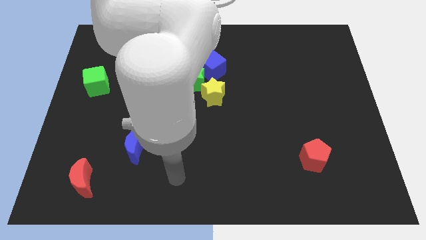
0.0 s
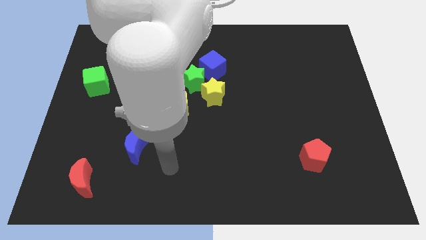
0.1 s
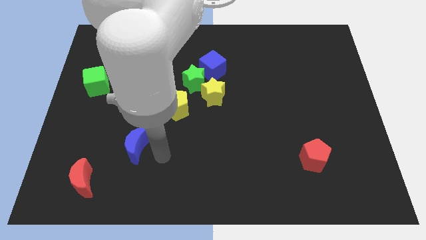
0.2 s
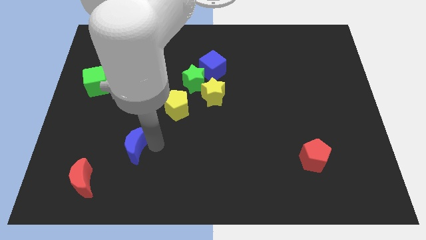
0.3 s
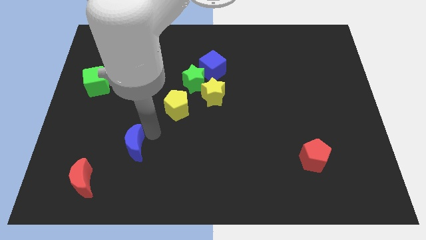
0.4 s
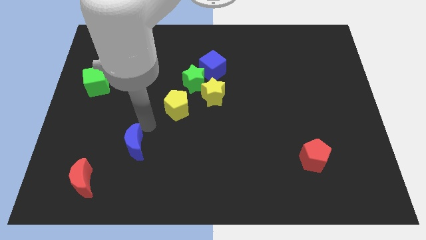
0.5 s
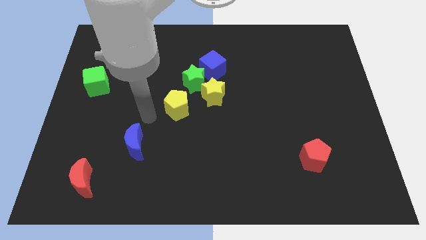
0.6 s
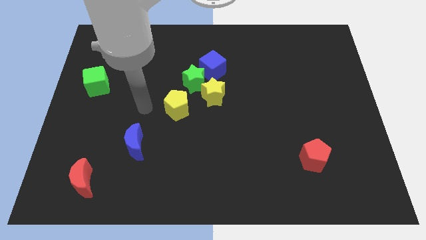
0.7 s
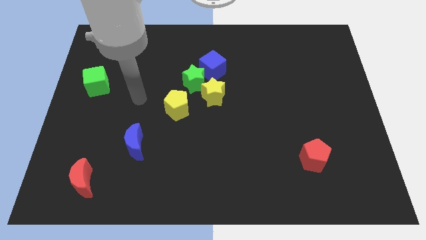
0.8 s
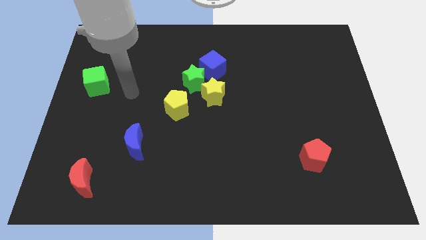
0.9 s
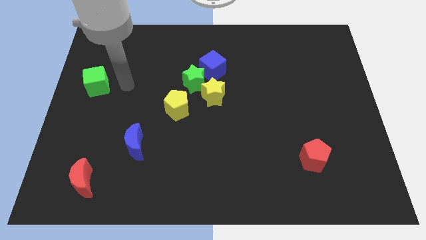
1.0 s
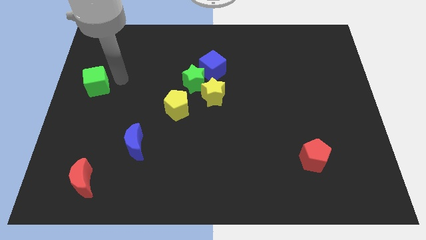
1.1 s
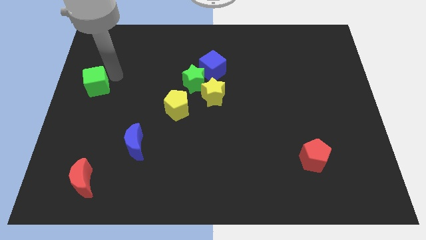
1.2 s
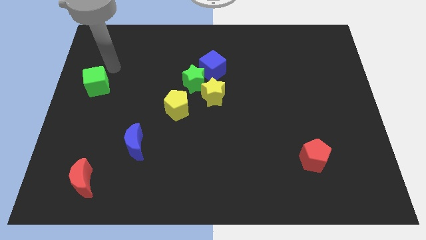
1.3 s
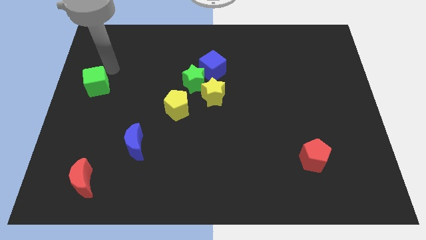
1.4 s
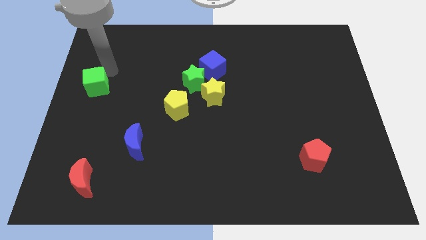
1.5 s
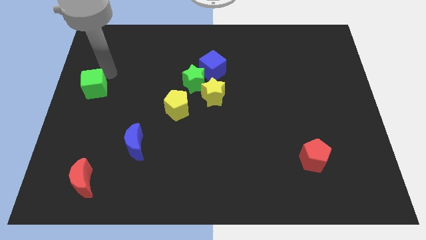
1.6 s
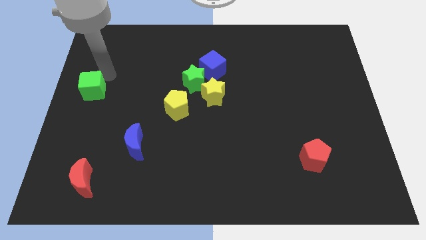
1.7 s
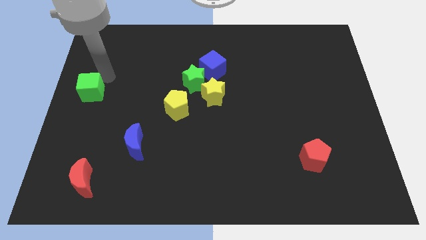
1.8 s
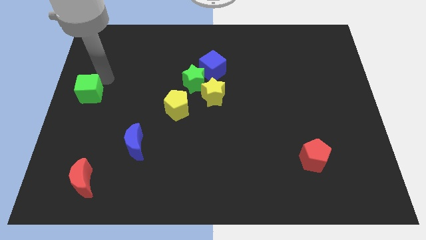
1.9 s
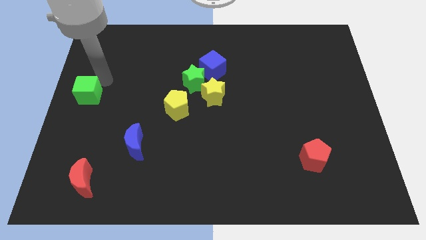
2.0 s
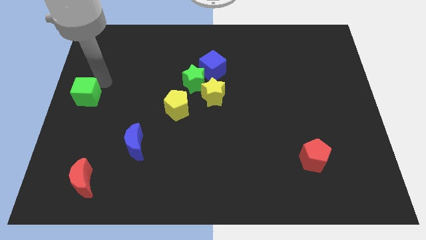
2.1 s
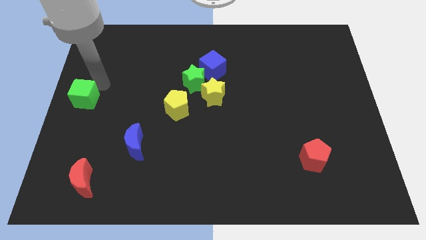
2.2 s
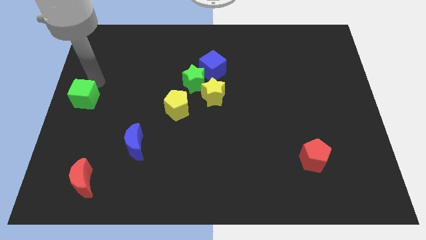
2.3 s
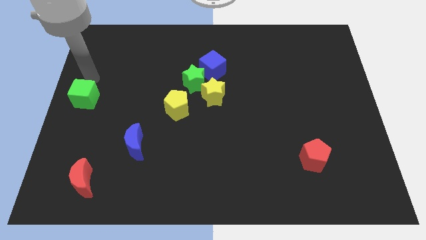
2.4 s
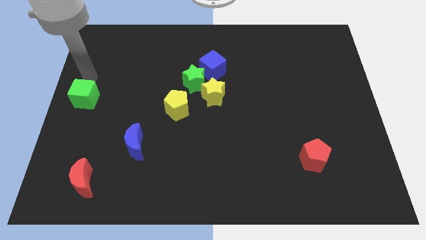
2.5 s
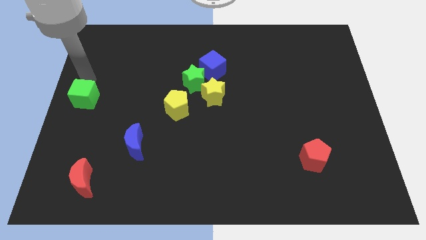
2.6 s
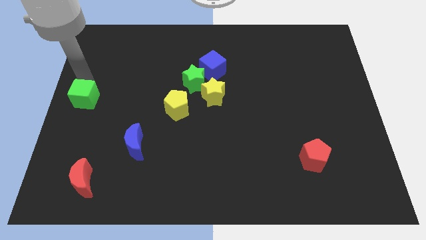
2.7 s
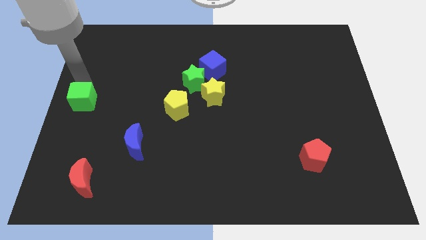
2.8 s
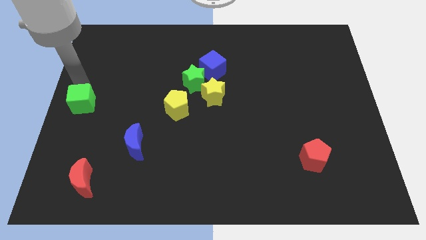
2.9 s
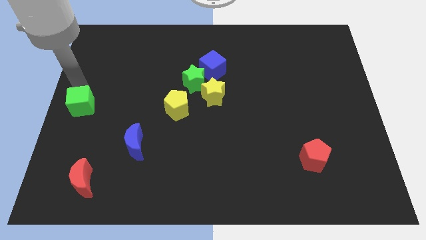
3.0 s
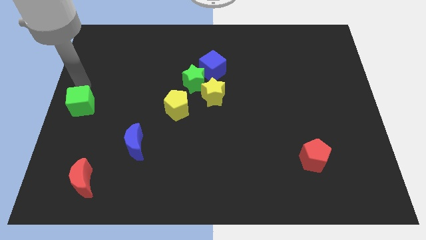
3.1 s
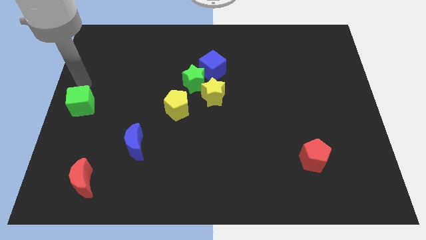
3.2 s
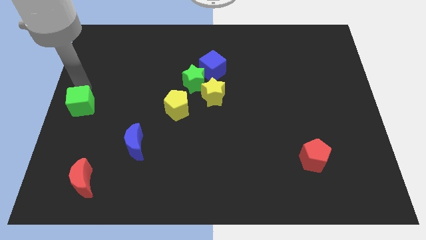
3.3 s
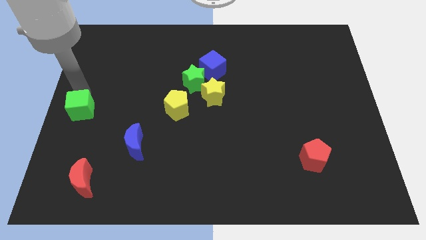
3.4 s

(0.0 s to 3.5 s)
push the green cube a bit down

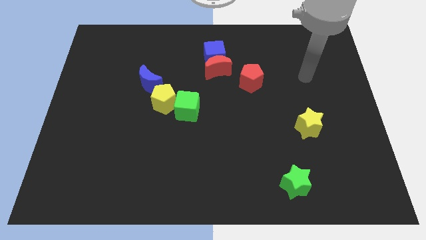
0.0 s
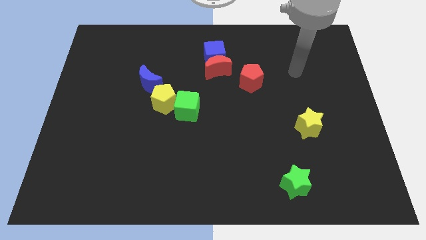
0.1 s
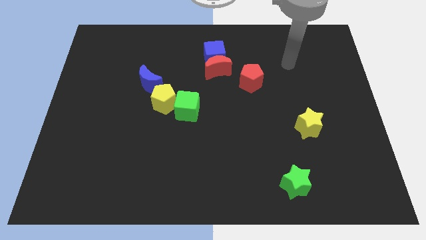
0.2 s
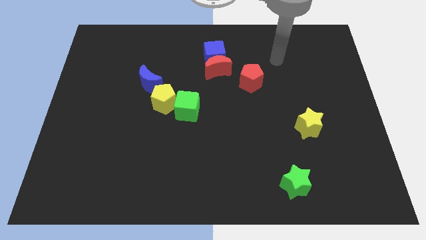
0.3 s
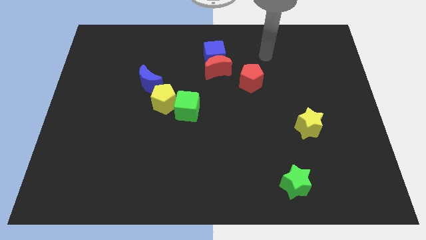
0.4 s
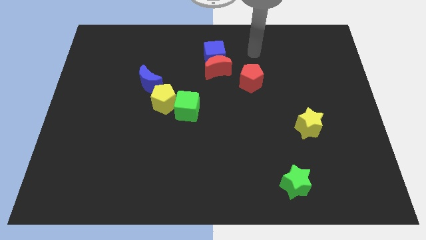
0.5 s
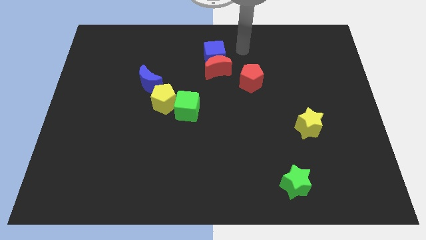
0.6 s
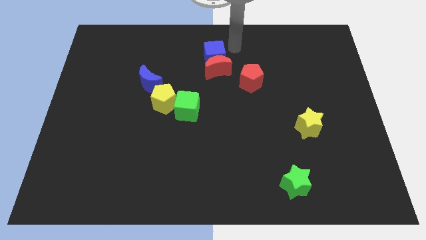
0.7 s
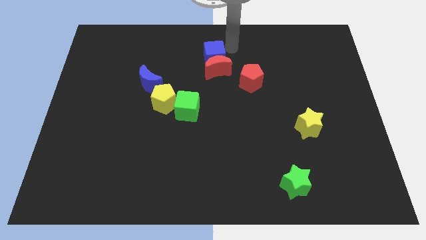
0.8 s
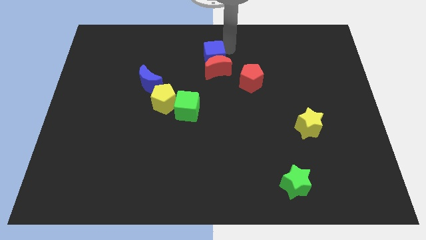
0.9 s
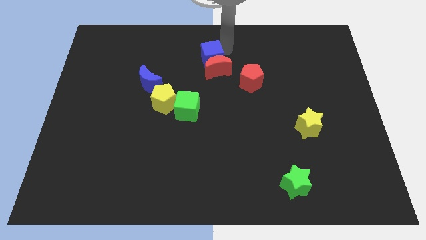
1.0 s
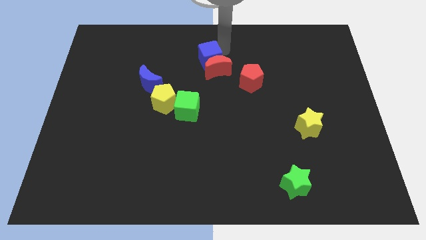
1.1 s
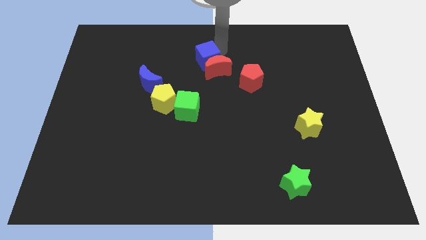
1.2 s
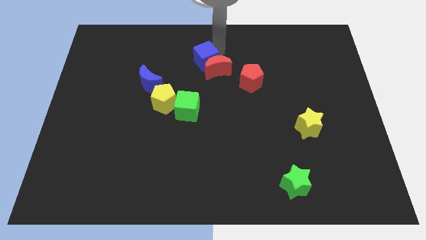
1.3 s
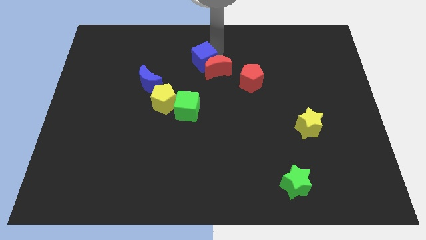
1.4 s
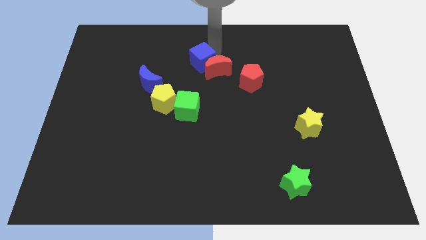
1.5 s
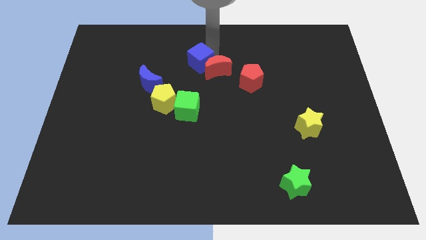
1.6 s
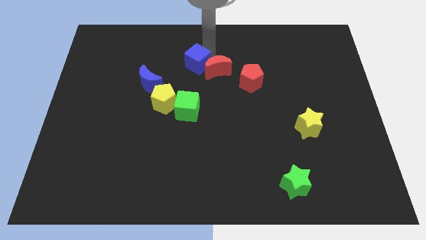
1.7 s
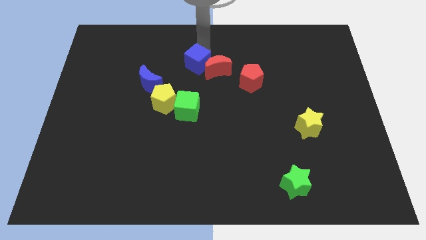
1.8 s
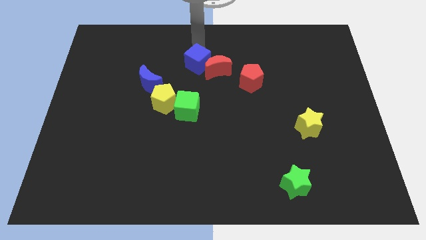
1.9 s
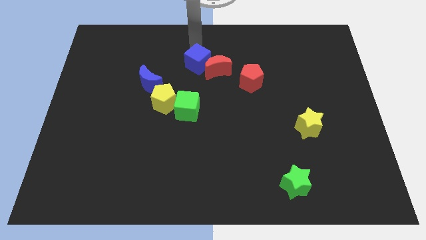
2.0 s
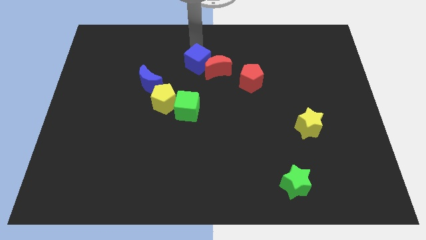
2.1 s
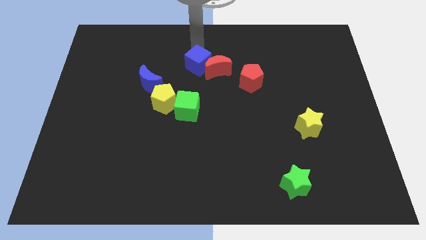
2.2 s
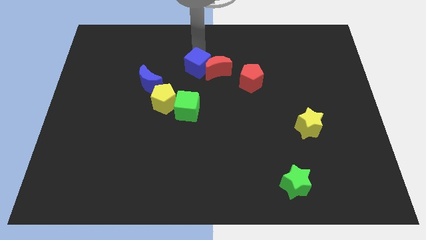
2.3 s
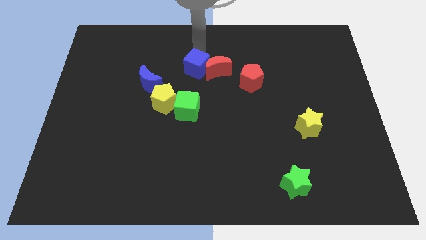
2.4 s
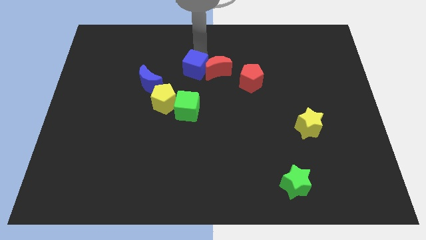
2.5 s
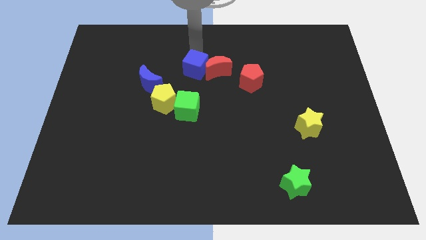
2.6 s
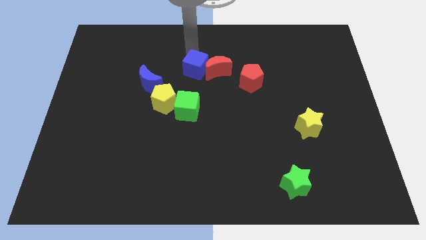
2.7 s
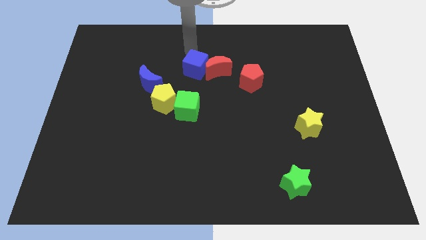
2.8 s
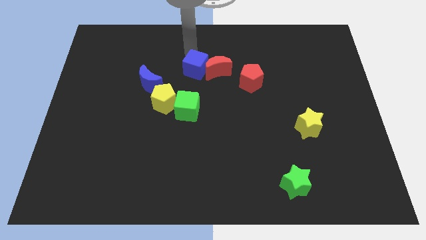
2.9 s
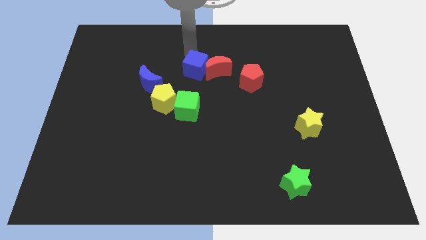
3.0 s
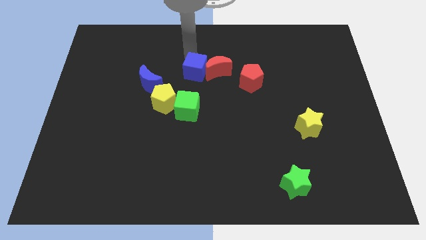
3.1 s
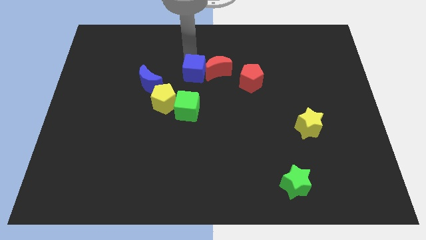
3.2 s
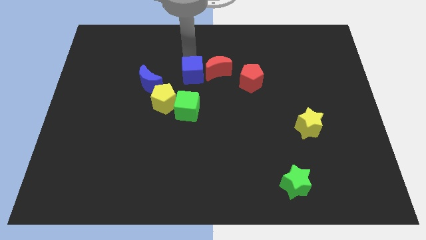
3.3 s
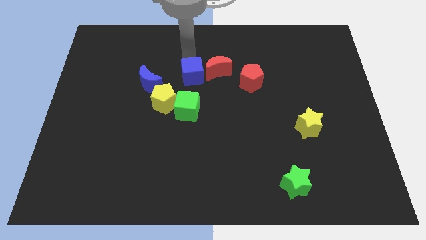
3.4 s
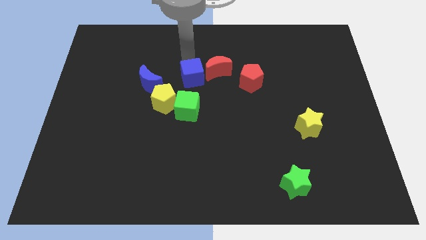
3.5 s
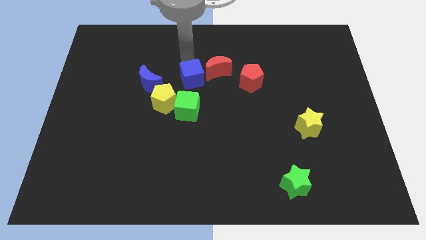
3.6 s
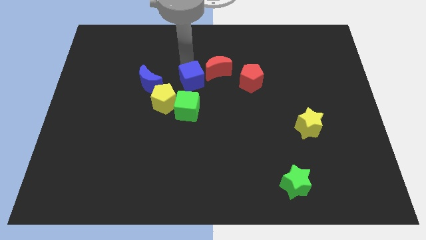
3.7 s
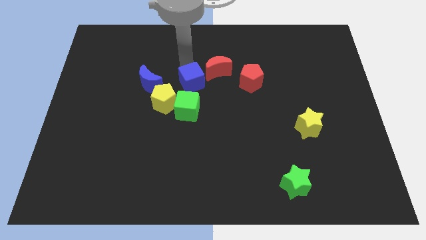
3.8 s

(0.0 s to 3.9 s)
move the blue cube a little bit downwards

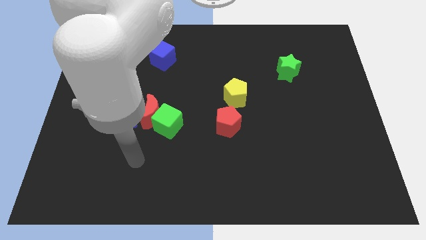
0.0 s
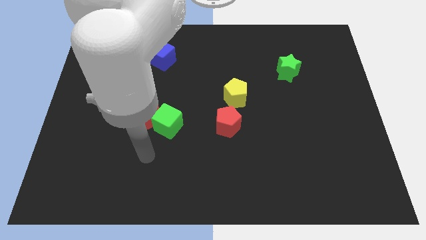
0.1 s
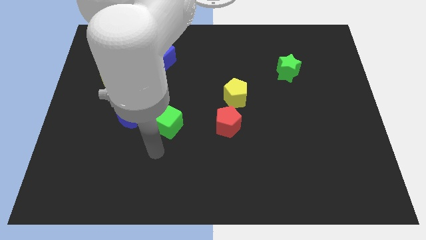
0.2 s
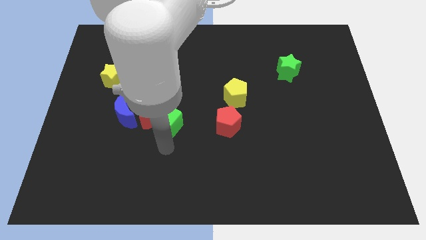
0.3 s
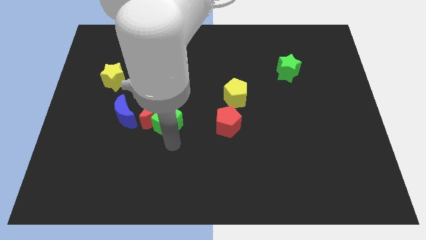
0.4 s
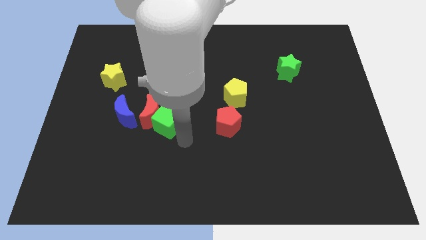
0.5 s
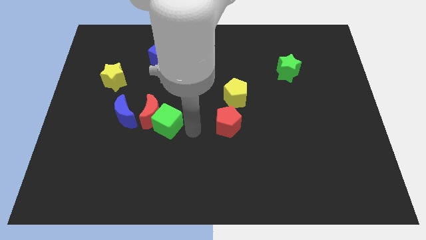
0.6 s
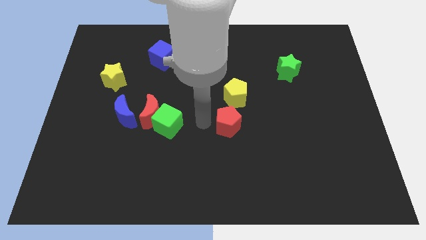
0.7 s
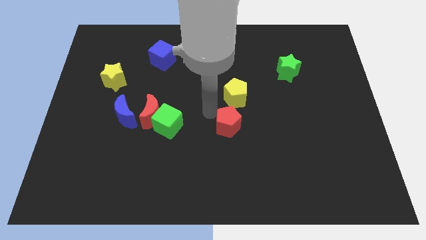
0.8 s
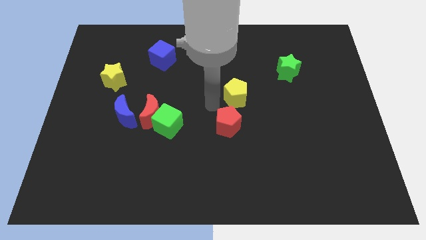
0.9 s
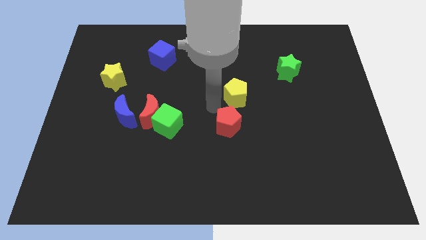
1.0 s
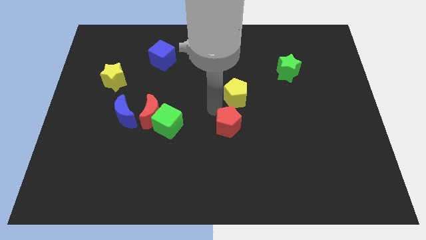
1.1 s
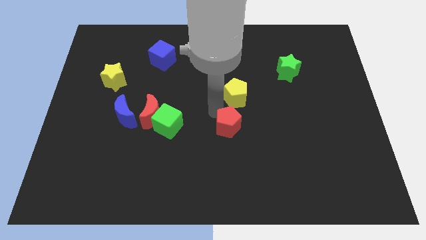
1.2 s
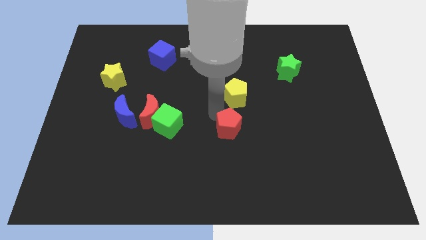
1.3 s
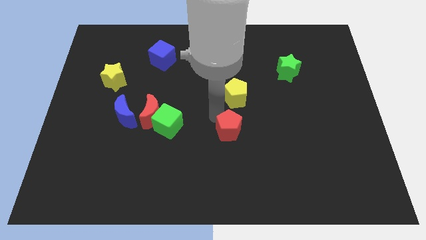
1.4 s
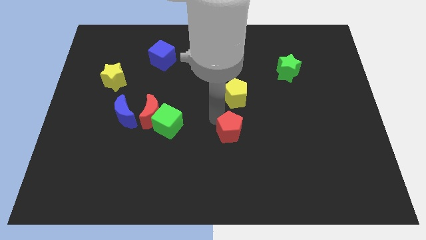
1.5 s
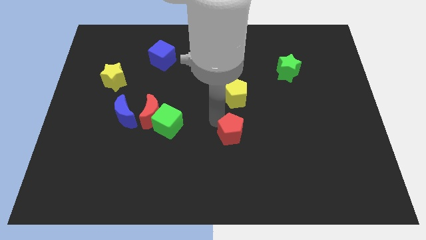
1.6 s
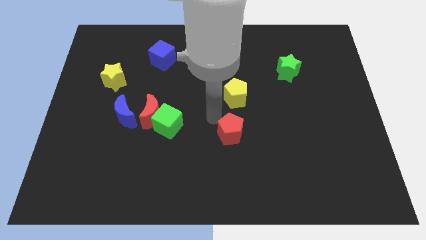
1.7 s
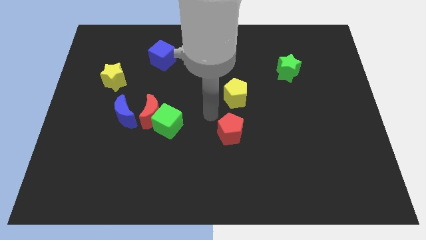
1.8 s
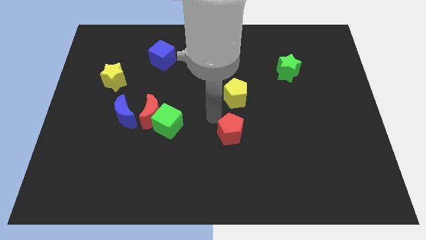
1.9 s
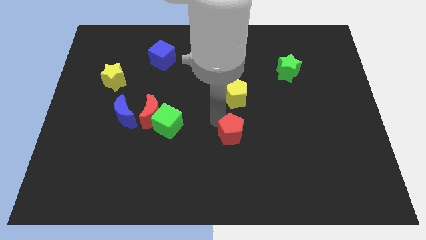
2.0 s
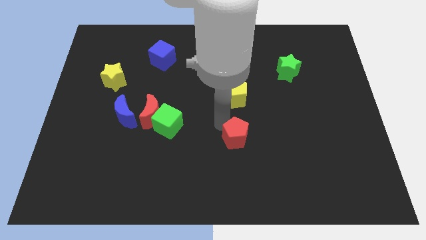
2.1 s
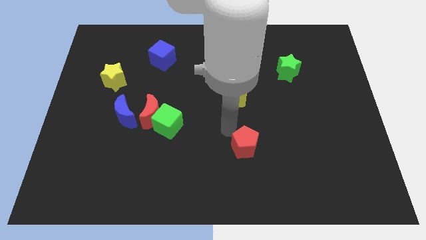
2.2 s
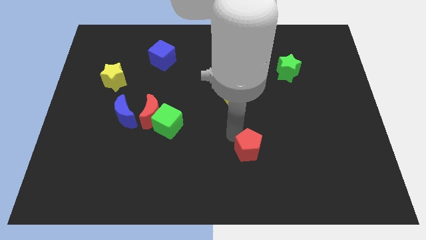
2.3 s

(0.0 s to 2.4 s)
slightly move the red pentagon downwards and right
